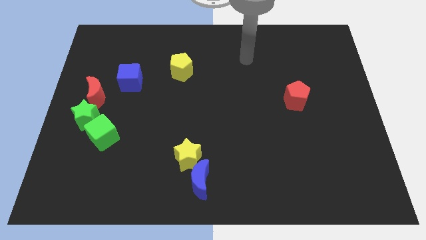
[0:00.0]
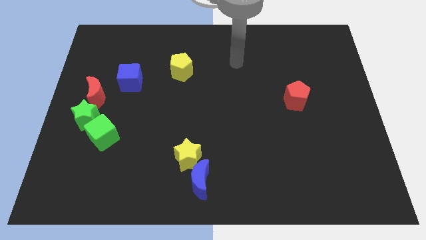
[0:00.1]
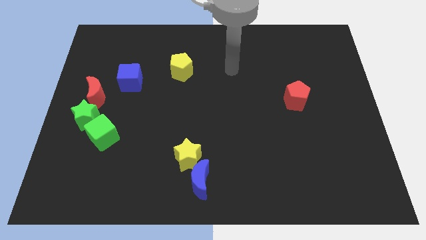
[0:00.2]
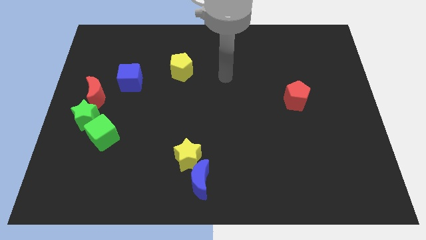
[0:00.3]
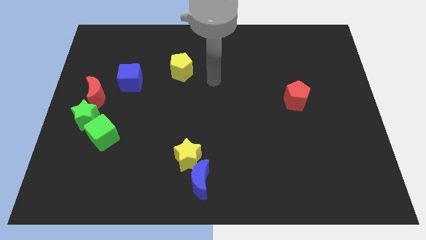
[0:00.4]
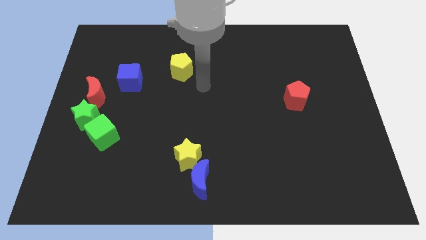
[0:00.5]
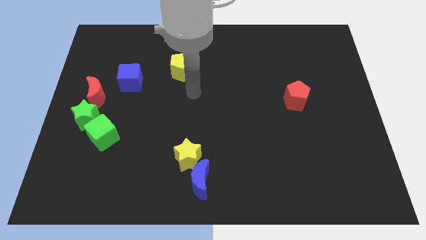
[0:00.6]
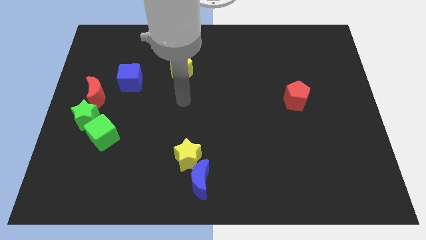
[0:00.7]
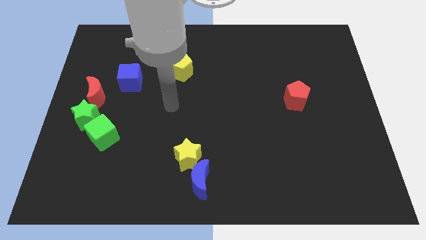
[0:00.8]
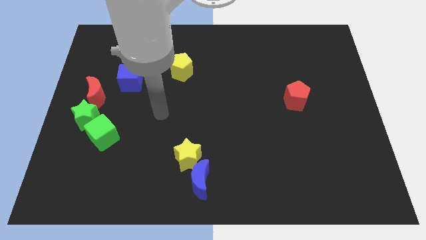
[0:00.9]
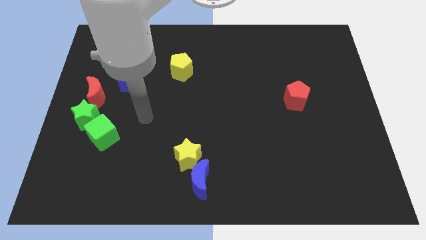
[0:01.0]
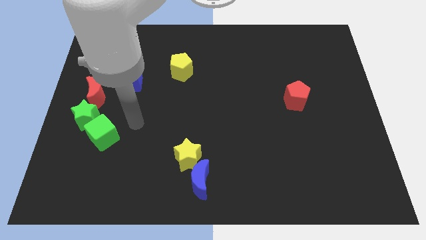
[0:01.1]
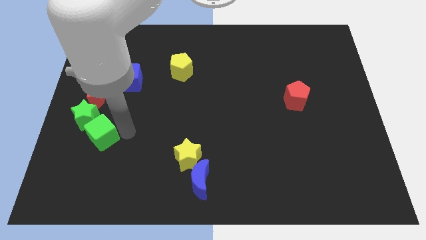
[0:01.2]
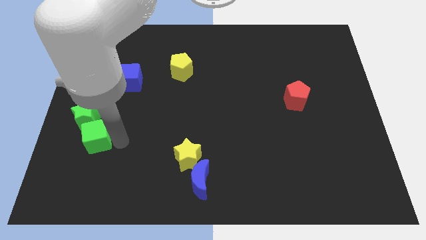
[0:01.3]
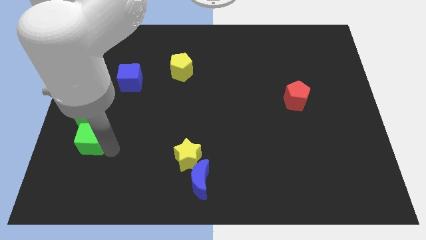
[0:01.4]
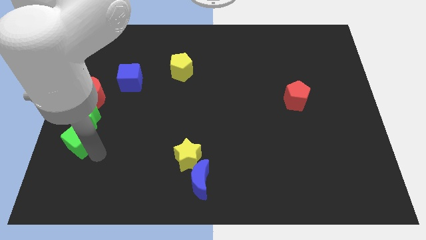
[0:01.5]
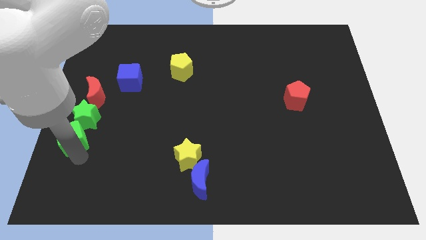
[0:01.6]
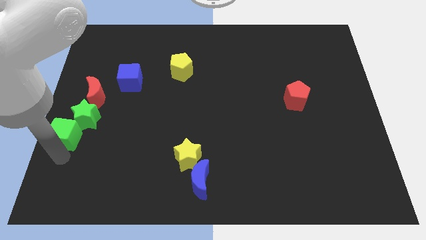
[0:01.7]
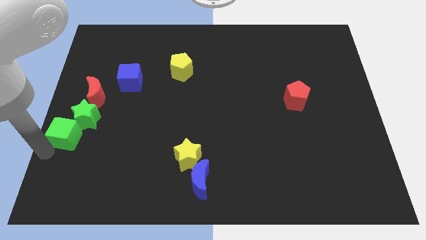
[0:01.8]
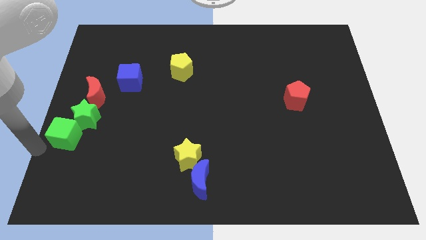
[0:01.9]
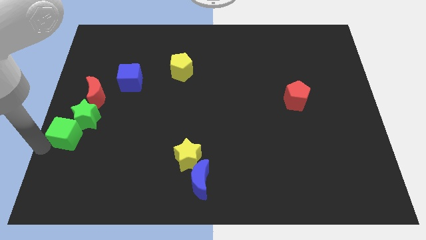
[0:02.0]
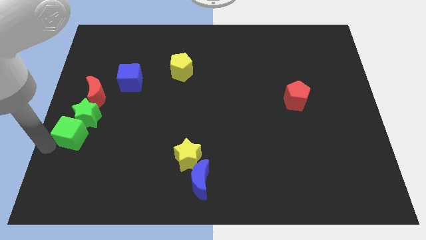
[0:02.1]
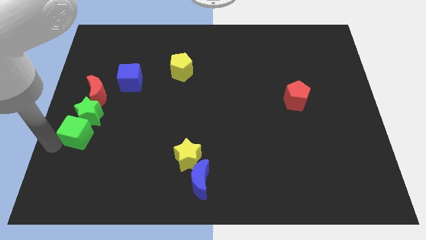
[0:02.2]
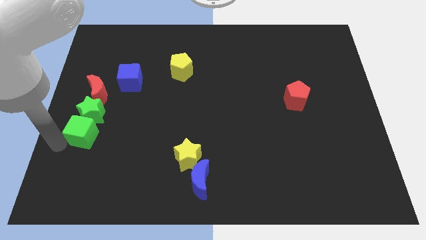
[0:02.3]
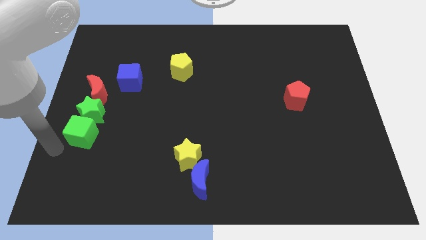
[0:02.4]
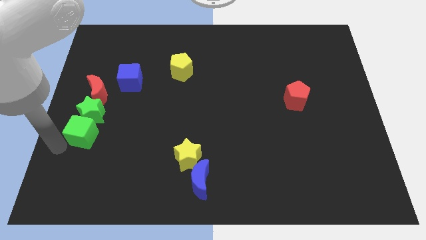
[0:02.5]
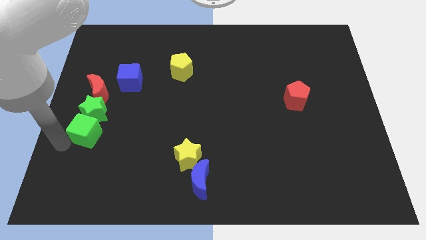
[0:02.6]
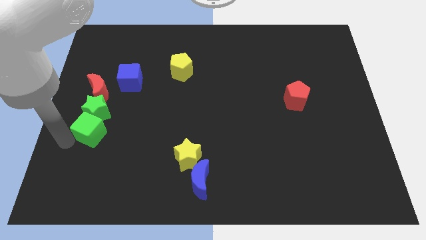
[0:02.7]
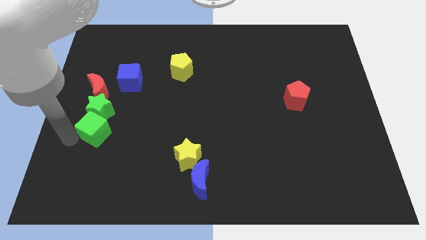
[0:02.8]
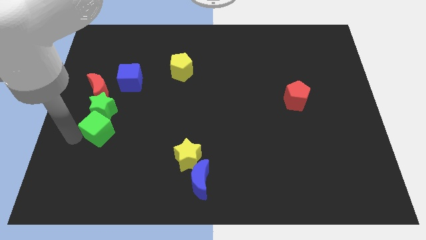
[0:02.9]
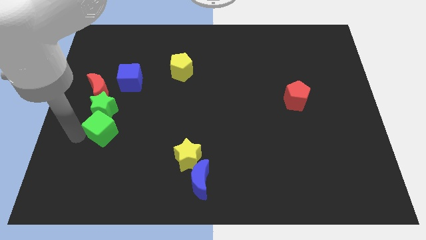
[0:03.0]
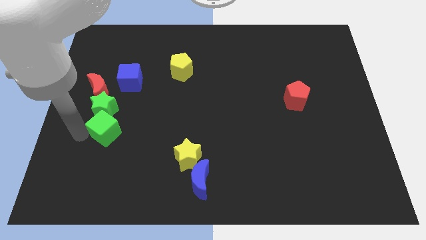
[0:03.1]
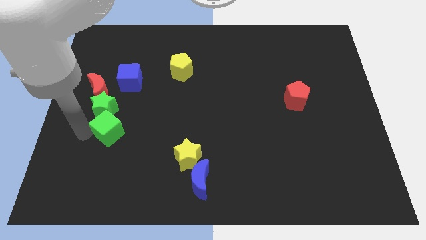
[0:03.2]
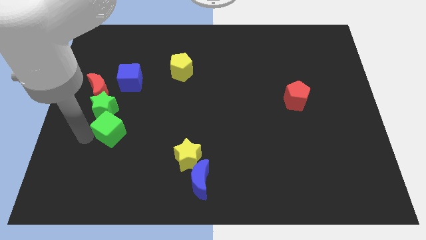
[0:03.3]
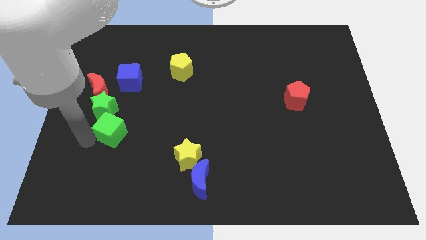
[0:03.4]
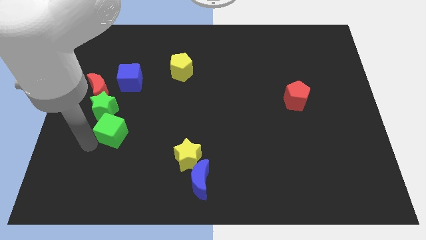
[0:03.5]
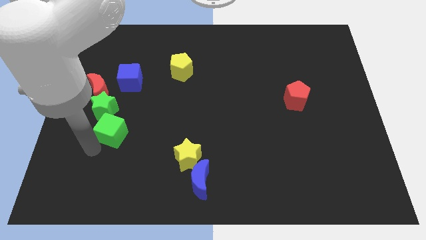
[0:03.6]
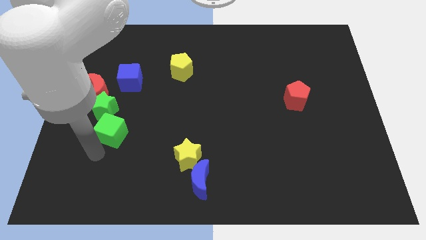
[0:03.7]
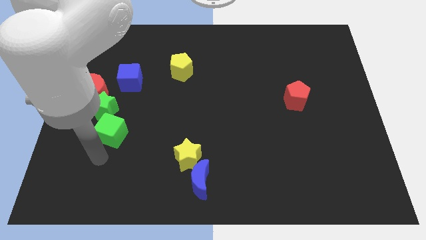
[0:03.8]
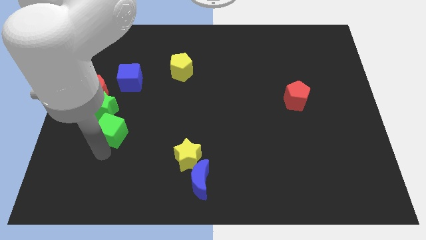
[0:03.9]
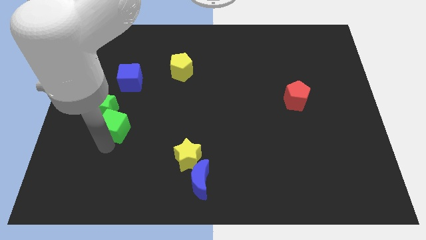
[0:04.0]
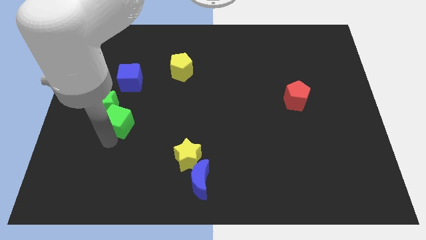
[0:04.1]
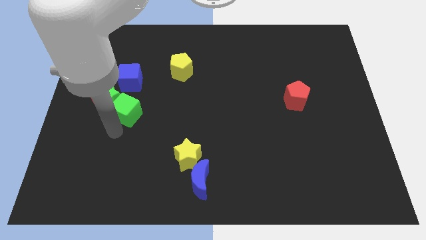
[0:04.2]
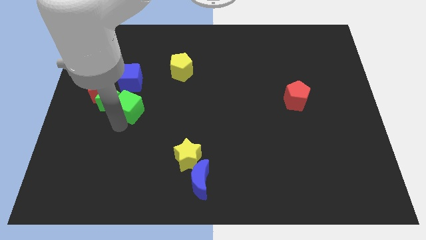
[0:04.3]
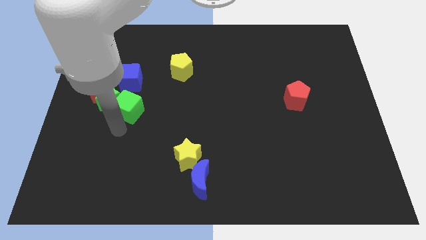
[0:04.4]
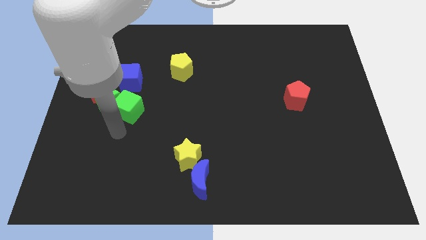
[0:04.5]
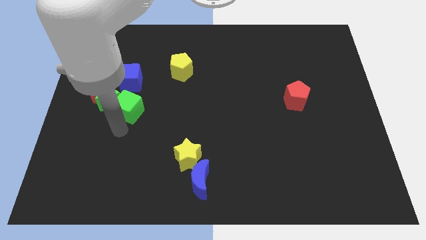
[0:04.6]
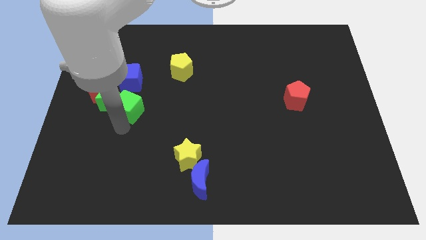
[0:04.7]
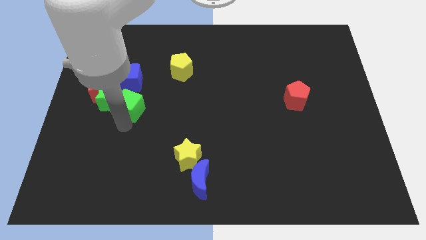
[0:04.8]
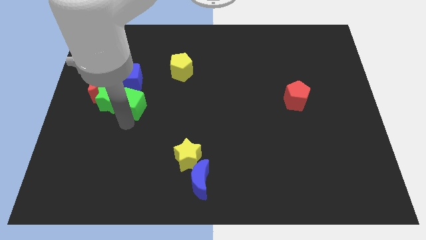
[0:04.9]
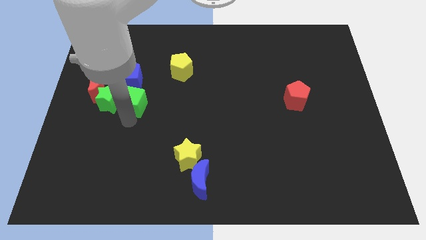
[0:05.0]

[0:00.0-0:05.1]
push the green cube just right of the red moon

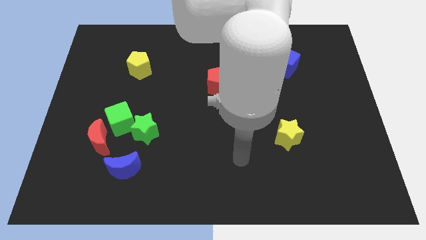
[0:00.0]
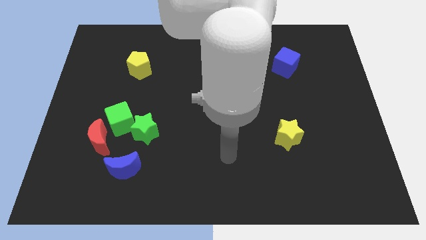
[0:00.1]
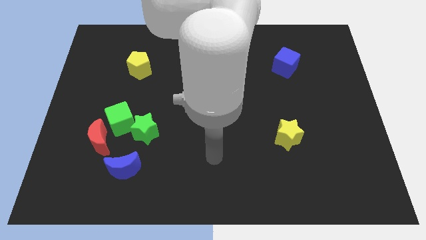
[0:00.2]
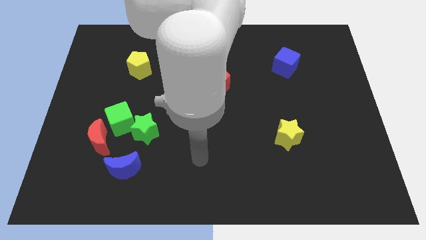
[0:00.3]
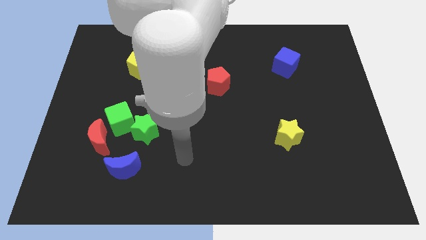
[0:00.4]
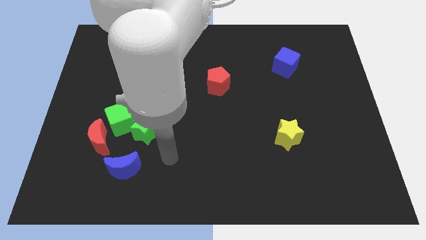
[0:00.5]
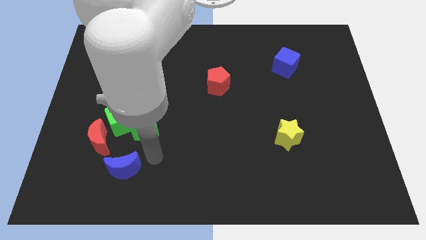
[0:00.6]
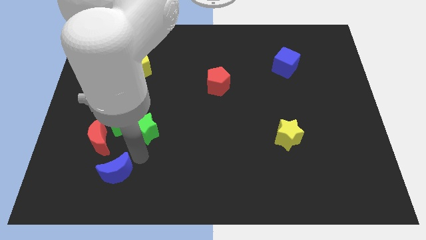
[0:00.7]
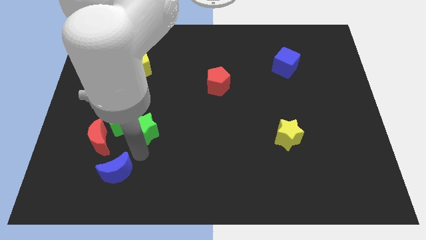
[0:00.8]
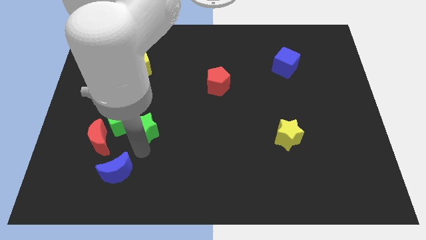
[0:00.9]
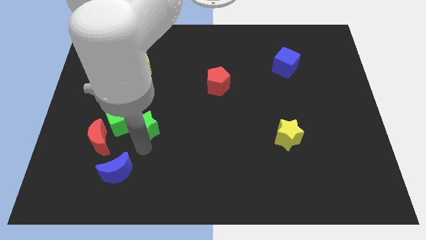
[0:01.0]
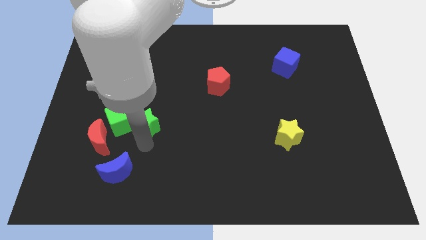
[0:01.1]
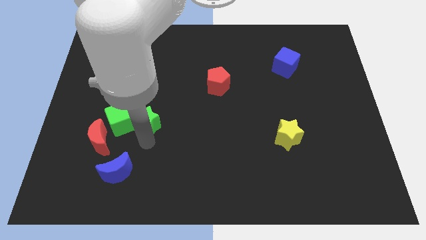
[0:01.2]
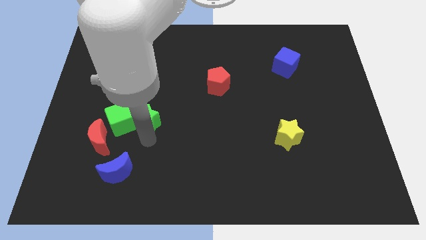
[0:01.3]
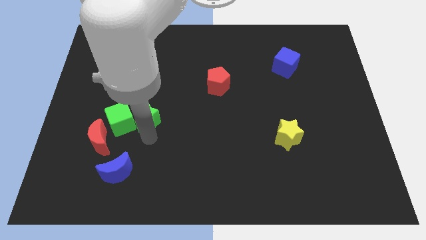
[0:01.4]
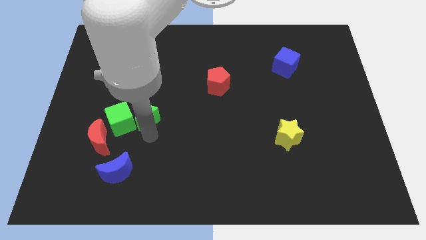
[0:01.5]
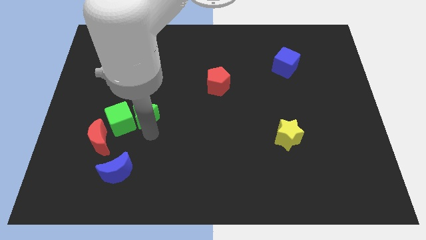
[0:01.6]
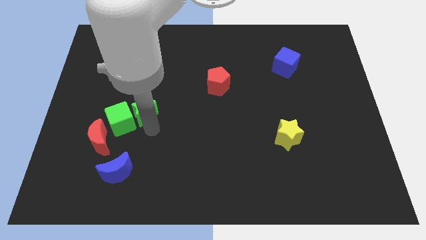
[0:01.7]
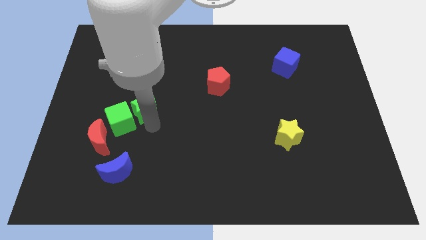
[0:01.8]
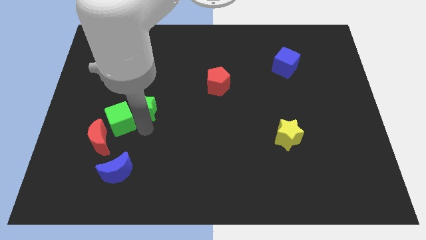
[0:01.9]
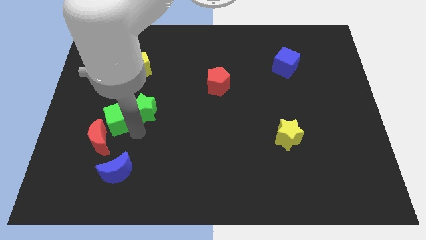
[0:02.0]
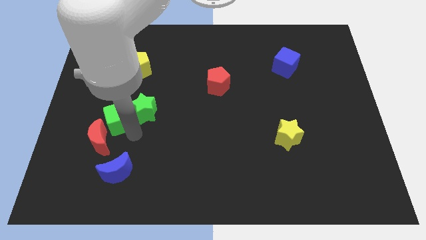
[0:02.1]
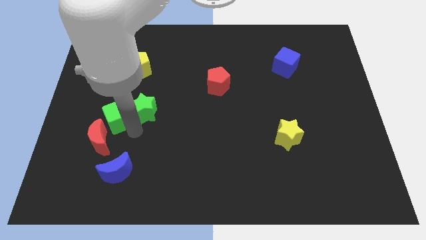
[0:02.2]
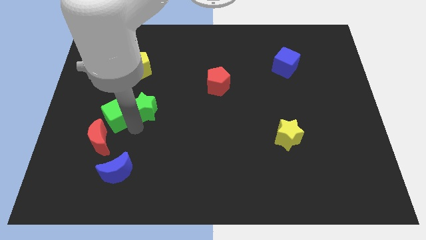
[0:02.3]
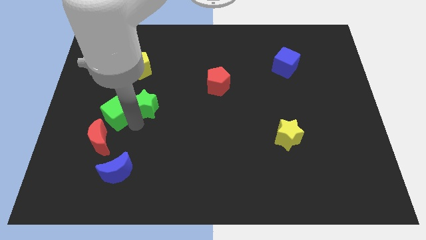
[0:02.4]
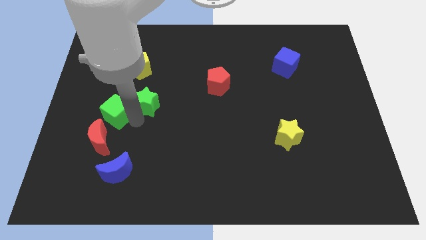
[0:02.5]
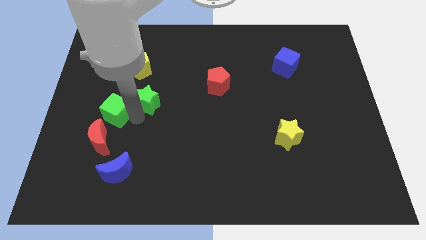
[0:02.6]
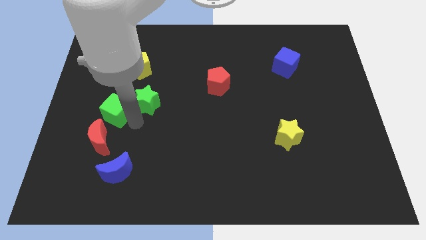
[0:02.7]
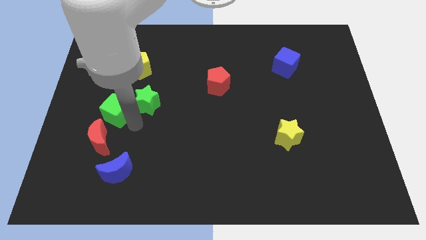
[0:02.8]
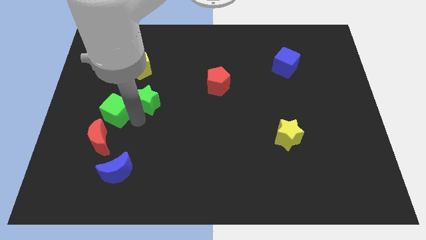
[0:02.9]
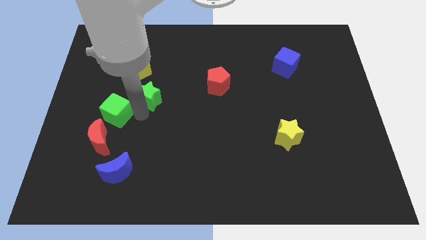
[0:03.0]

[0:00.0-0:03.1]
slide the green star to the bottom right side of the yellow pentagon

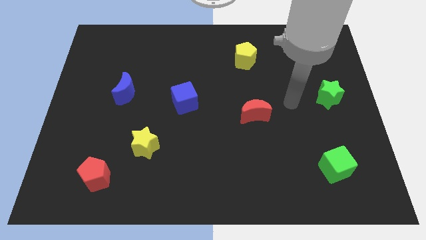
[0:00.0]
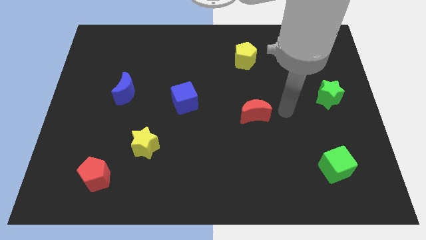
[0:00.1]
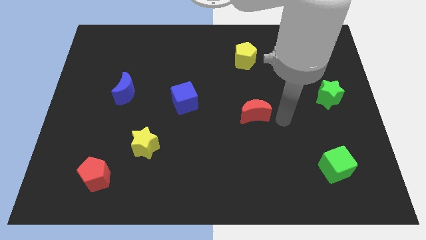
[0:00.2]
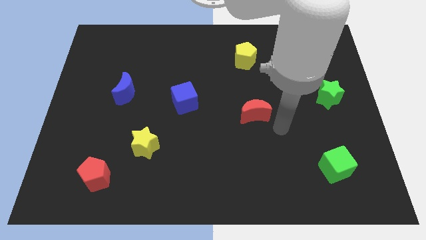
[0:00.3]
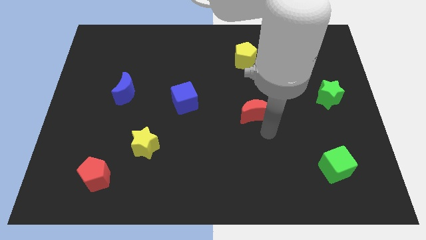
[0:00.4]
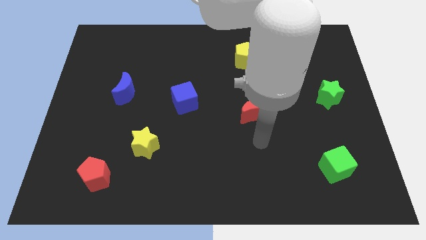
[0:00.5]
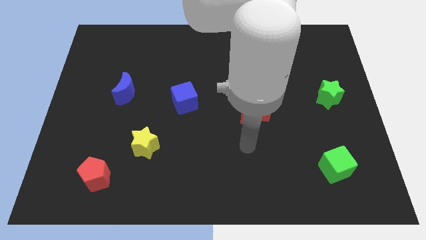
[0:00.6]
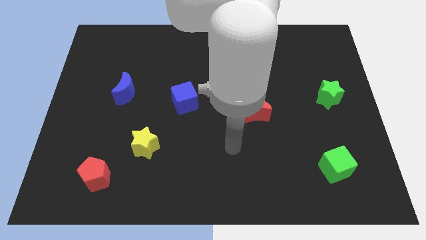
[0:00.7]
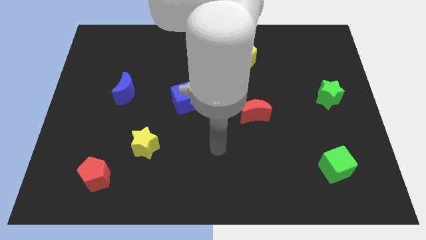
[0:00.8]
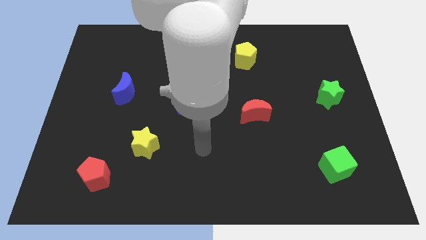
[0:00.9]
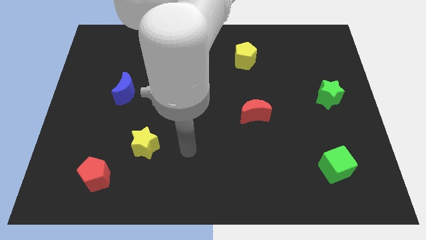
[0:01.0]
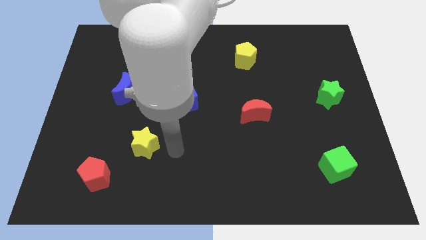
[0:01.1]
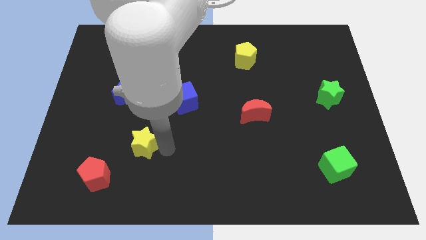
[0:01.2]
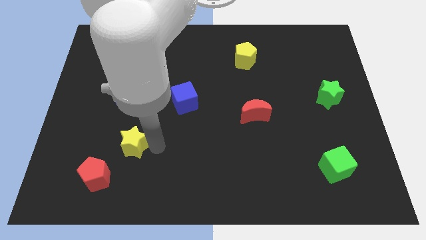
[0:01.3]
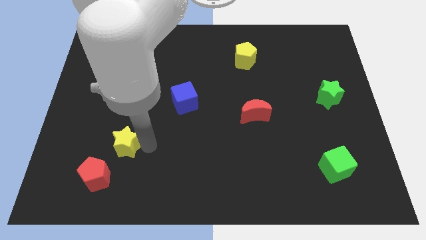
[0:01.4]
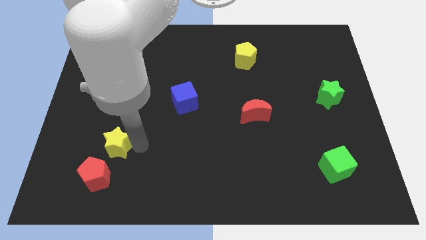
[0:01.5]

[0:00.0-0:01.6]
slide the yellow star to the top of the red pentagon
